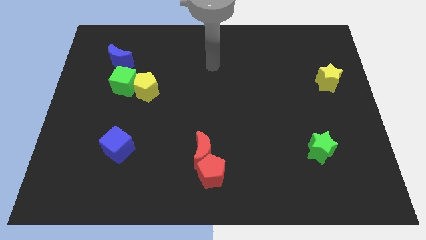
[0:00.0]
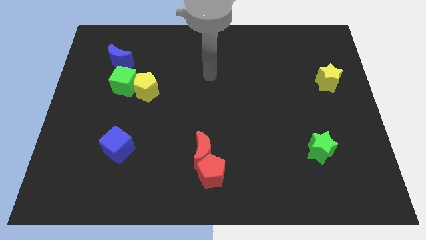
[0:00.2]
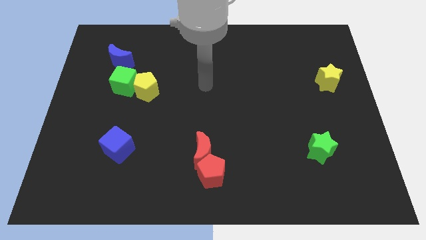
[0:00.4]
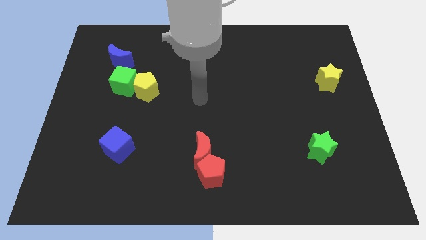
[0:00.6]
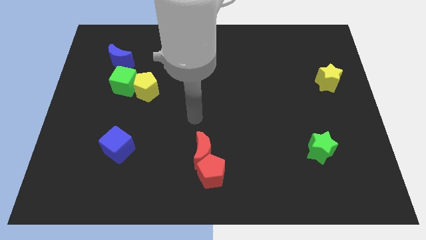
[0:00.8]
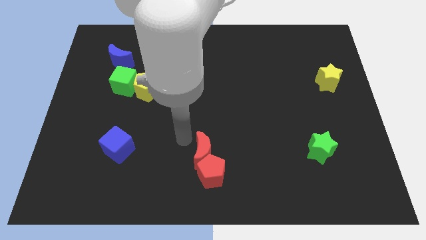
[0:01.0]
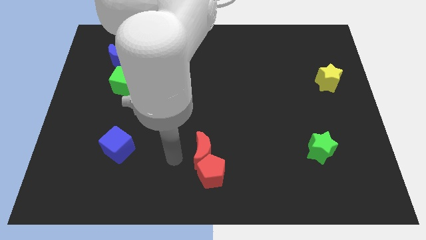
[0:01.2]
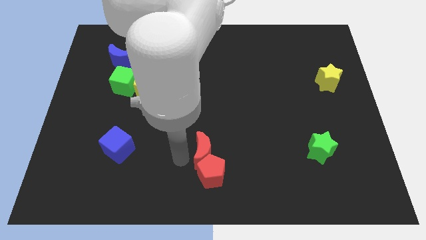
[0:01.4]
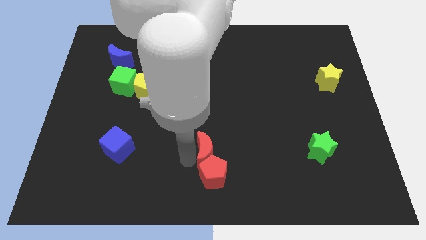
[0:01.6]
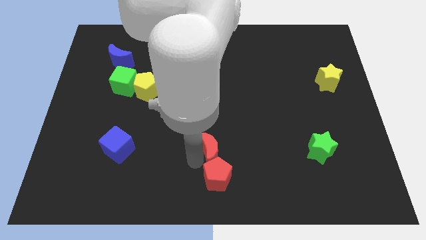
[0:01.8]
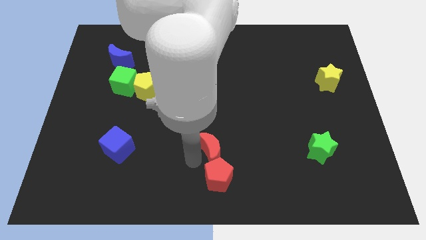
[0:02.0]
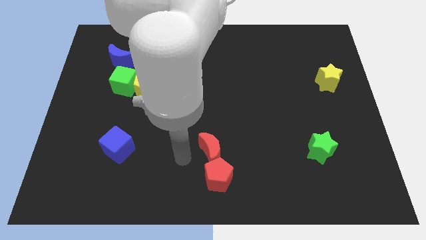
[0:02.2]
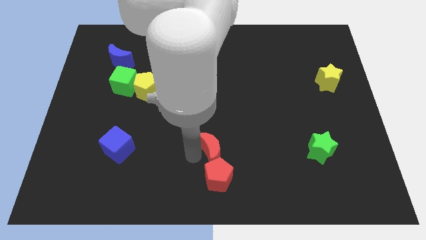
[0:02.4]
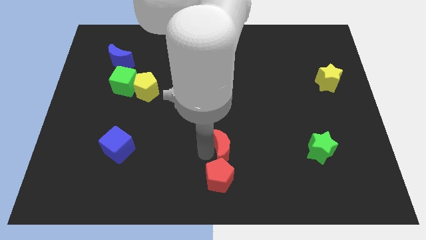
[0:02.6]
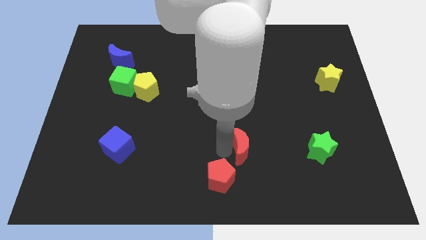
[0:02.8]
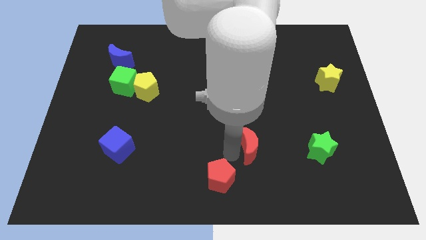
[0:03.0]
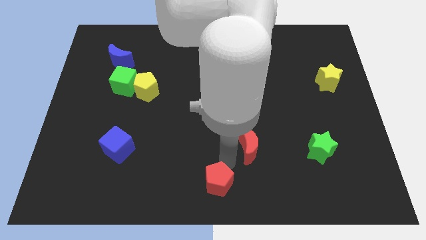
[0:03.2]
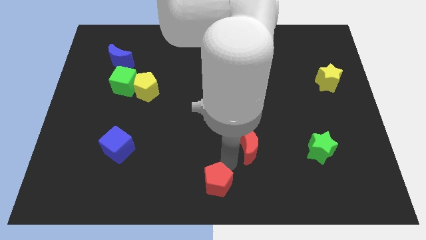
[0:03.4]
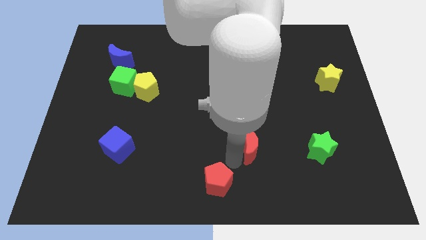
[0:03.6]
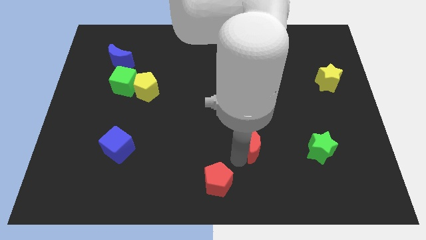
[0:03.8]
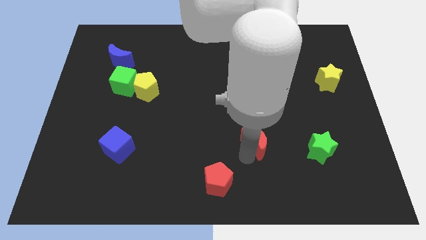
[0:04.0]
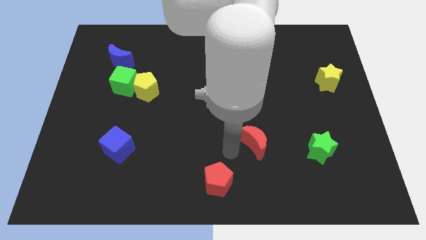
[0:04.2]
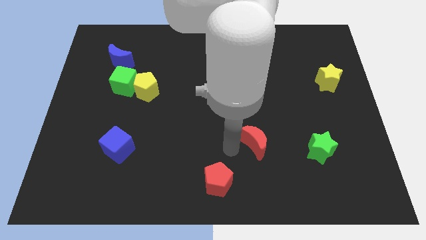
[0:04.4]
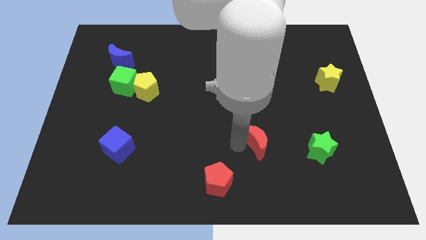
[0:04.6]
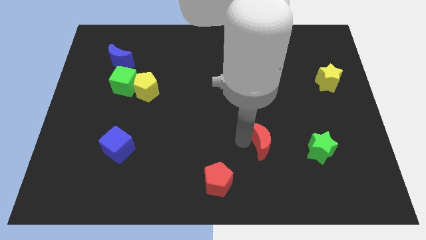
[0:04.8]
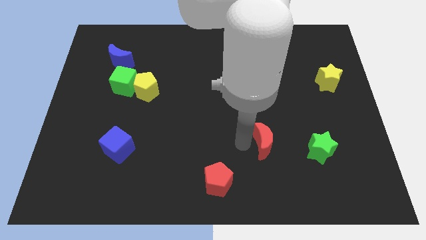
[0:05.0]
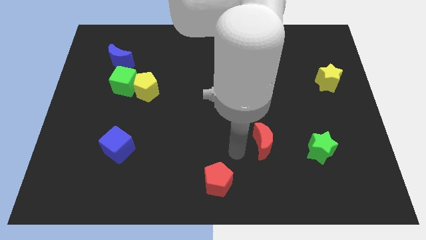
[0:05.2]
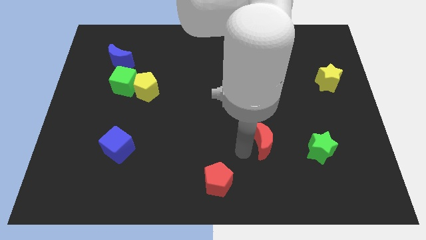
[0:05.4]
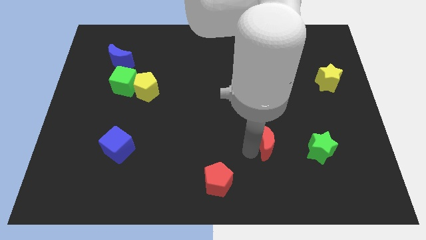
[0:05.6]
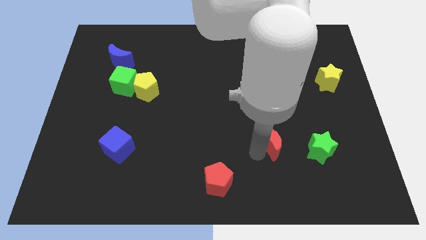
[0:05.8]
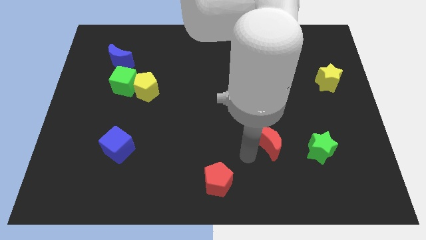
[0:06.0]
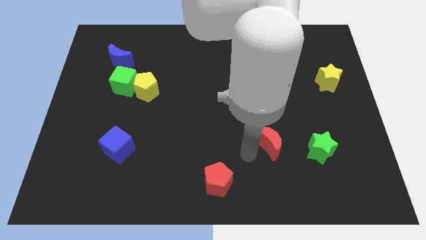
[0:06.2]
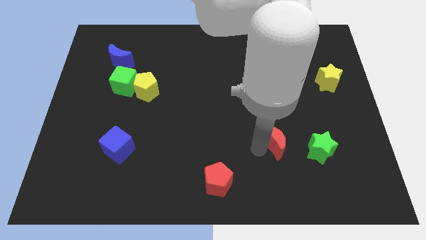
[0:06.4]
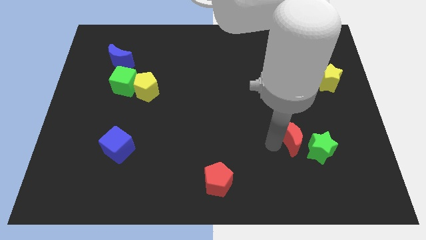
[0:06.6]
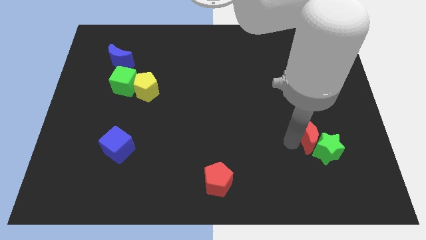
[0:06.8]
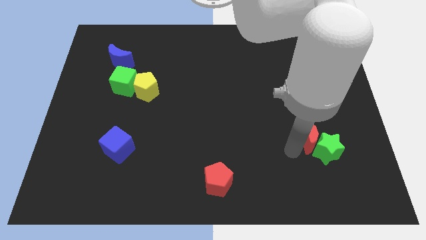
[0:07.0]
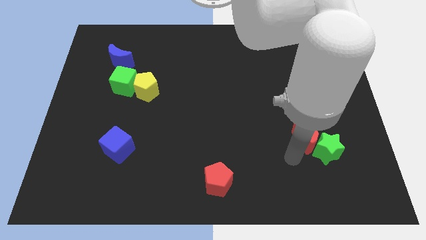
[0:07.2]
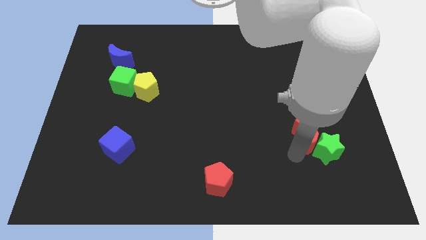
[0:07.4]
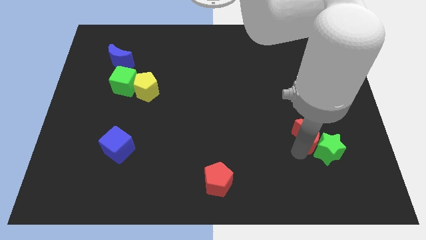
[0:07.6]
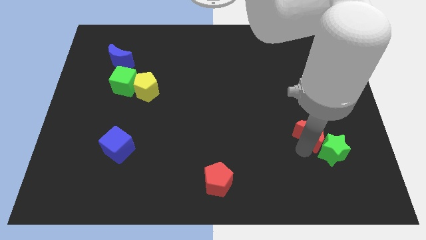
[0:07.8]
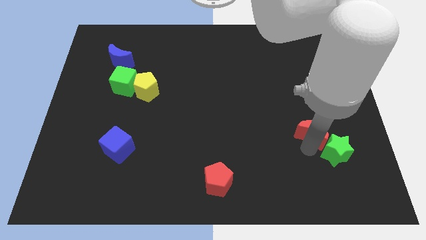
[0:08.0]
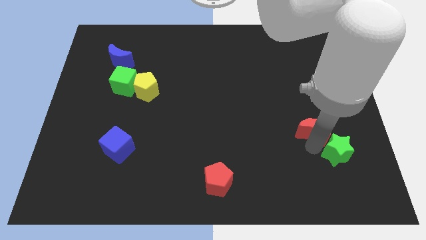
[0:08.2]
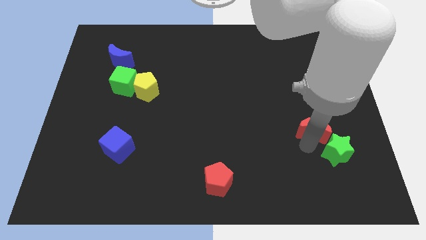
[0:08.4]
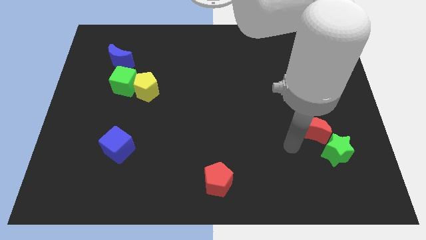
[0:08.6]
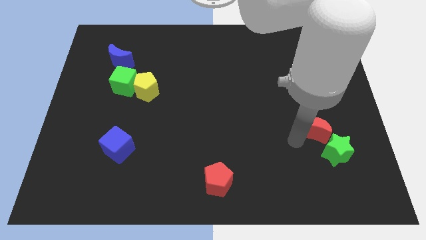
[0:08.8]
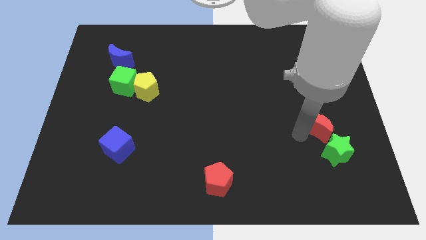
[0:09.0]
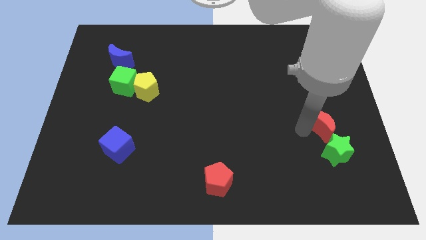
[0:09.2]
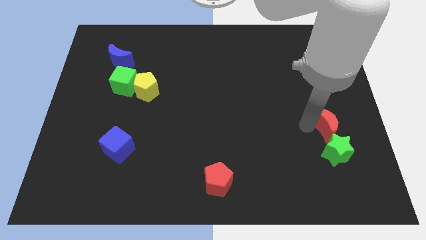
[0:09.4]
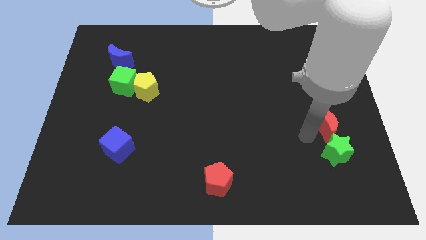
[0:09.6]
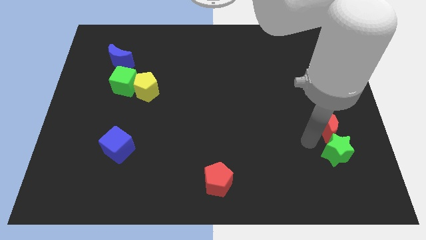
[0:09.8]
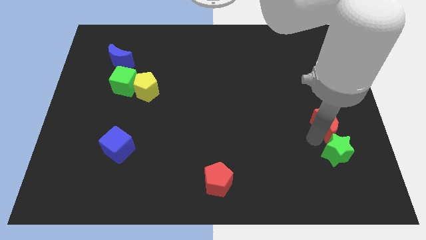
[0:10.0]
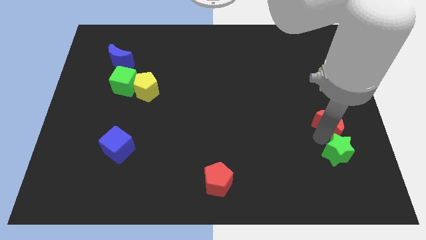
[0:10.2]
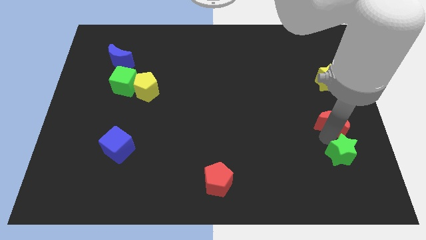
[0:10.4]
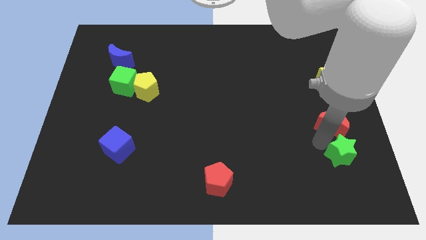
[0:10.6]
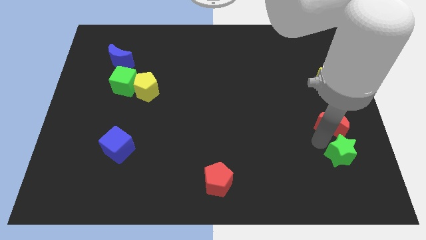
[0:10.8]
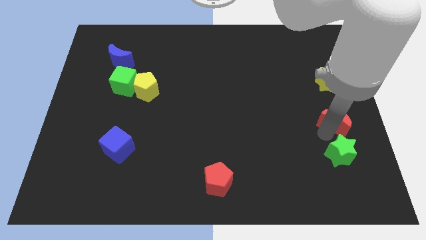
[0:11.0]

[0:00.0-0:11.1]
put the red moon to the right side
